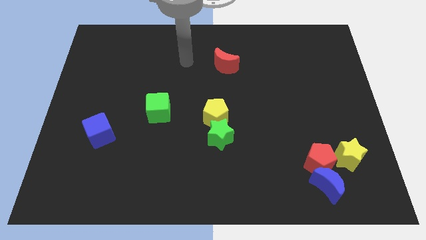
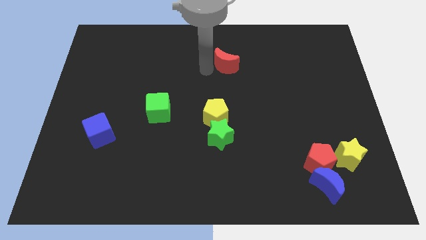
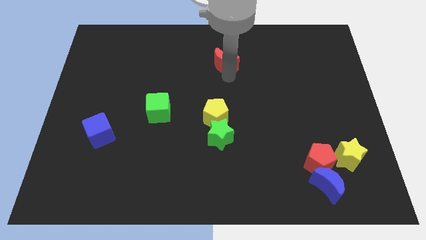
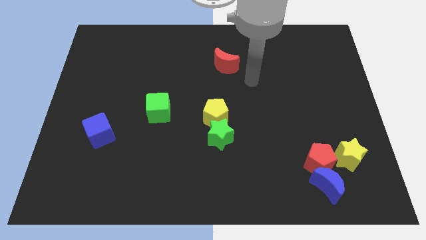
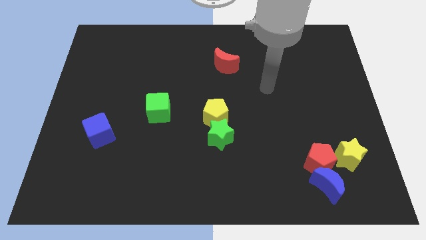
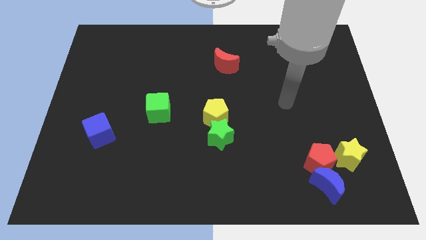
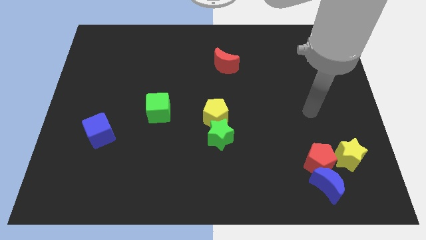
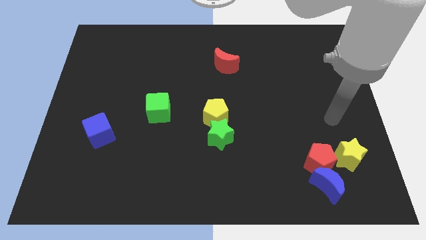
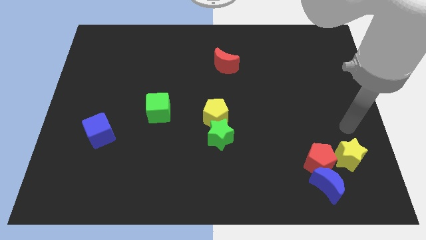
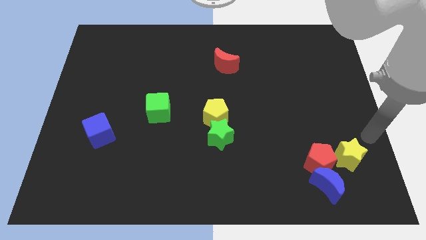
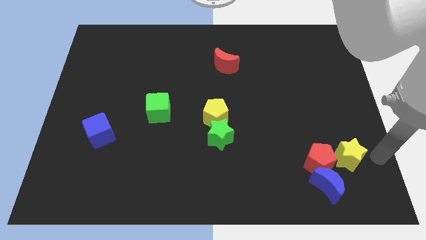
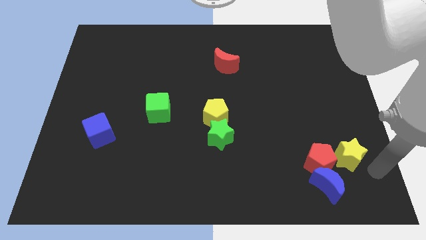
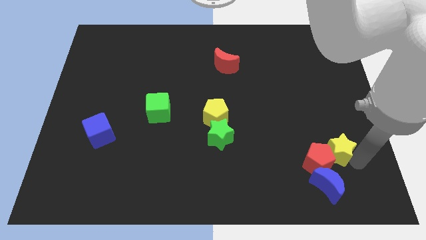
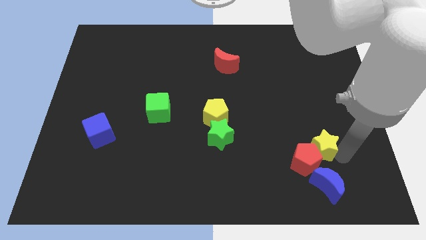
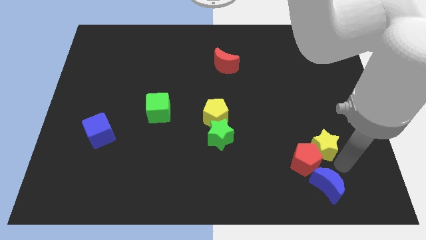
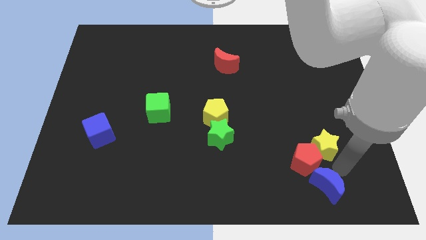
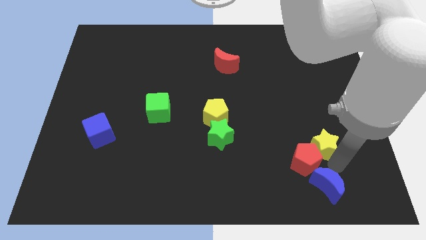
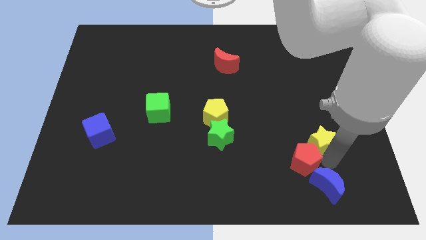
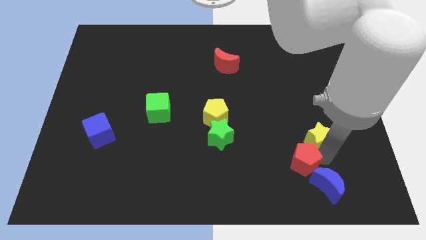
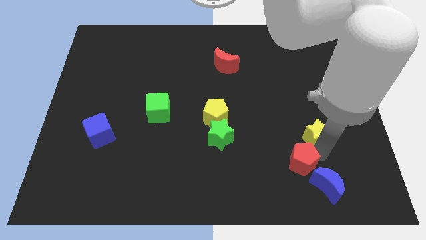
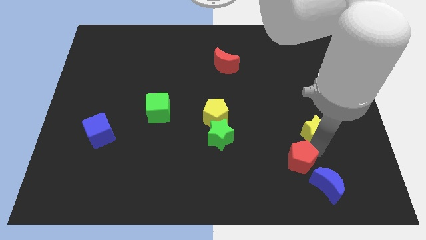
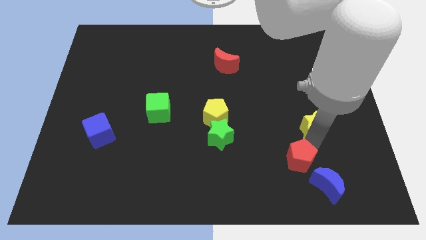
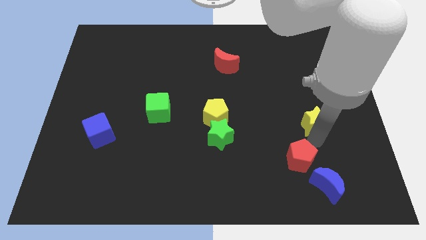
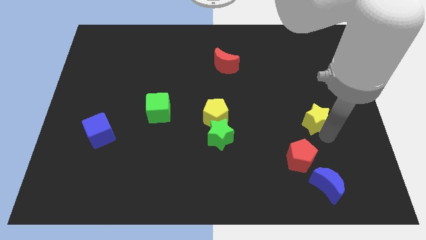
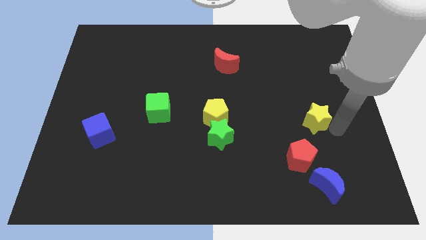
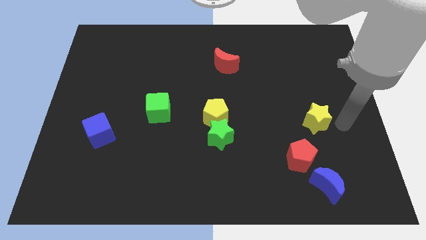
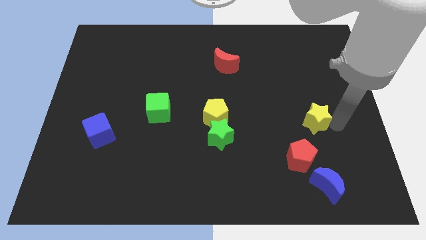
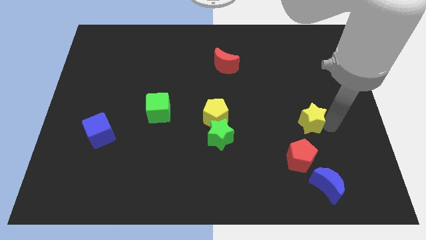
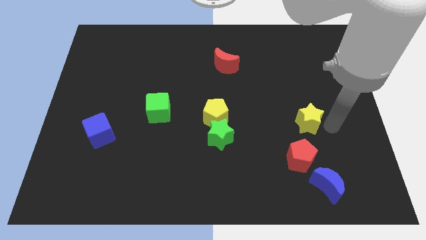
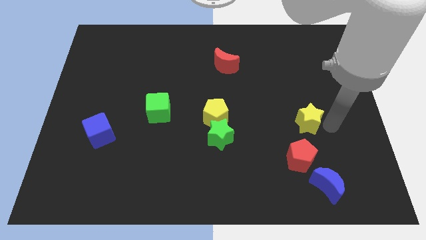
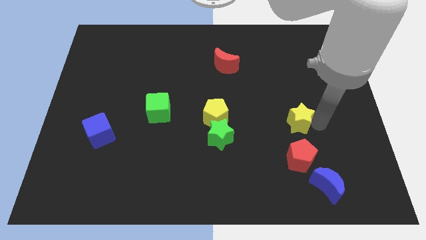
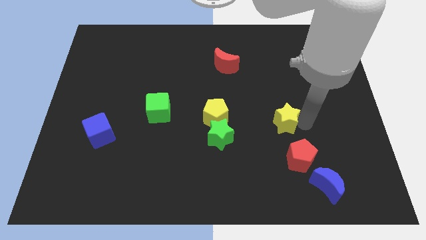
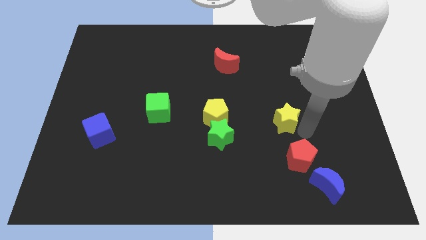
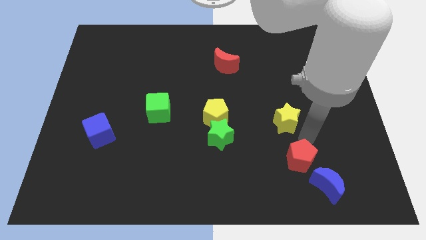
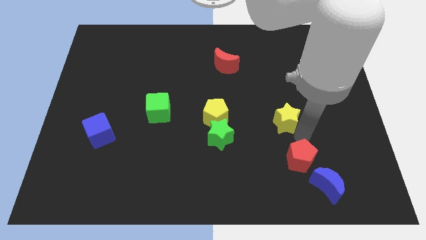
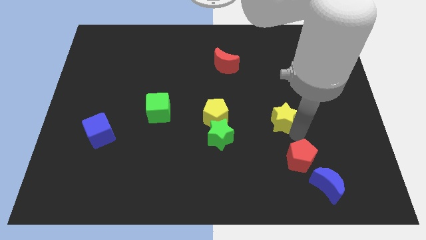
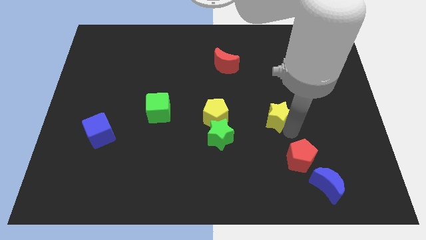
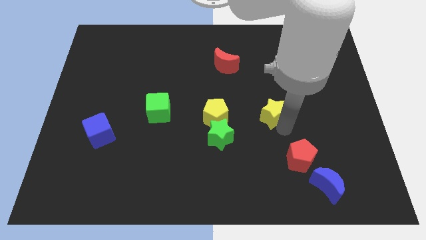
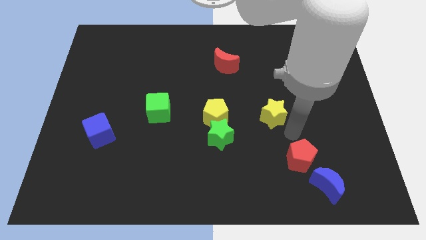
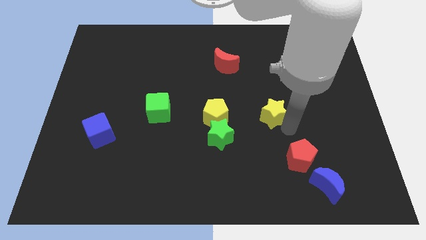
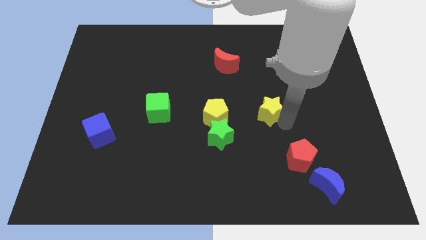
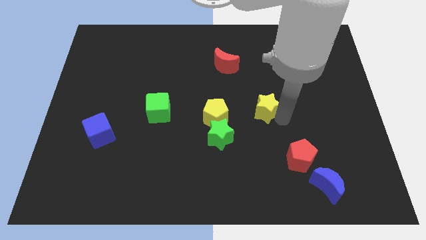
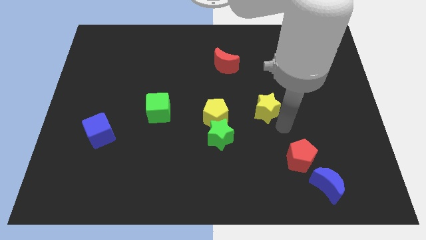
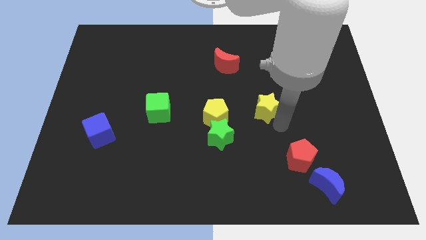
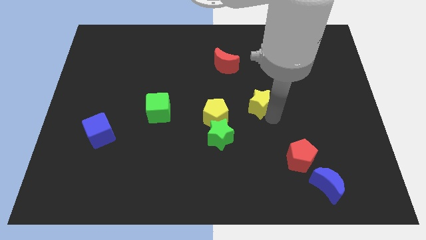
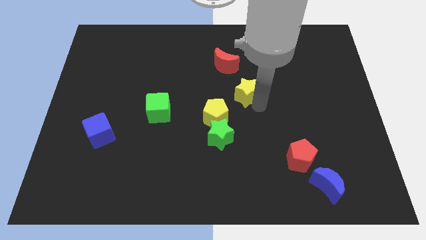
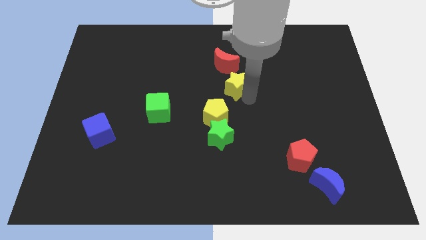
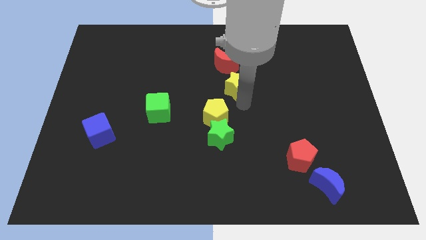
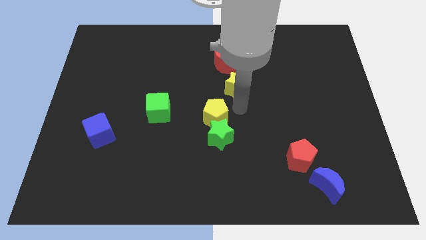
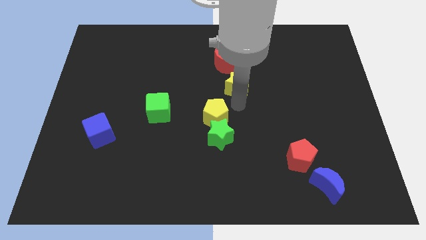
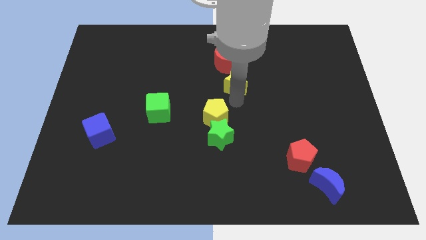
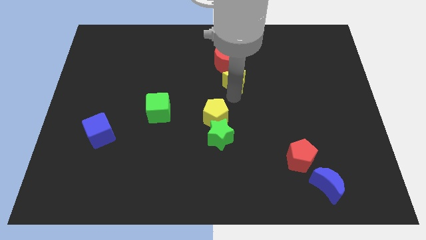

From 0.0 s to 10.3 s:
slide the yellow star close to the red moon

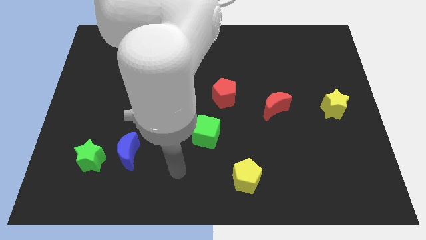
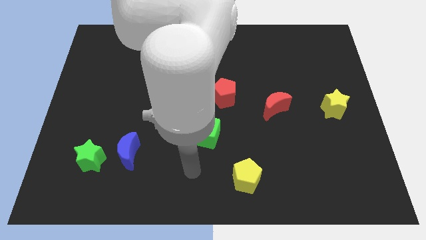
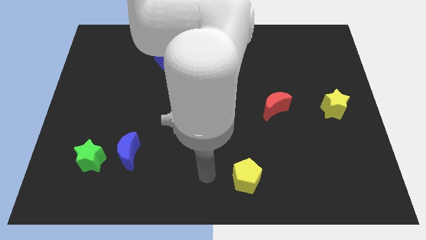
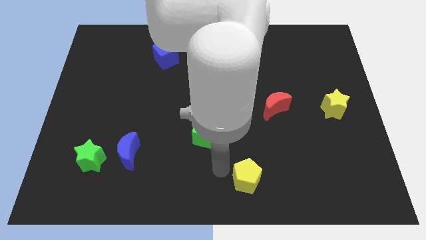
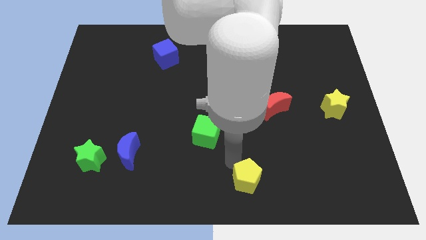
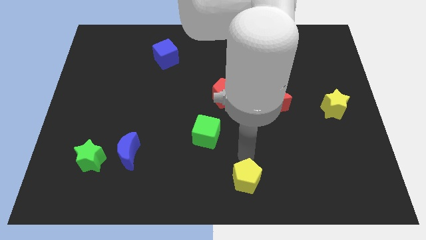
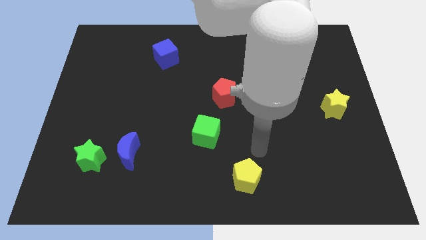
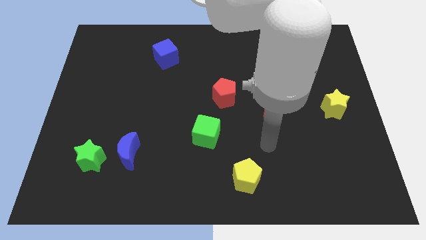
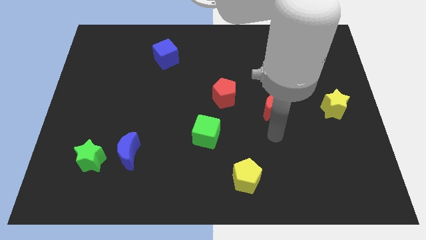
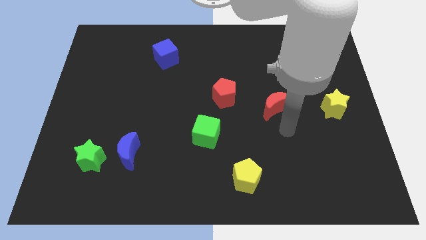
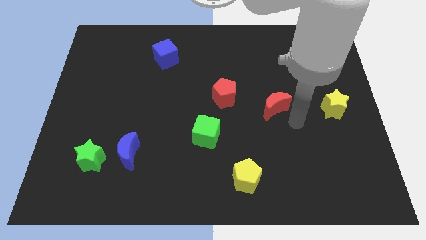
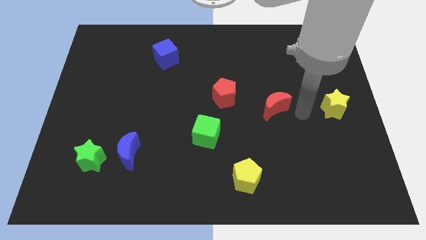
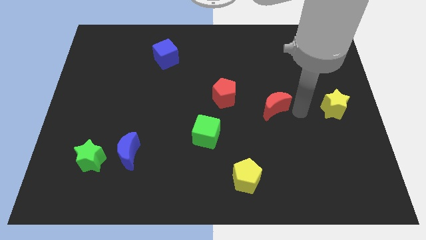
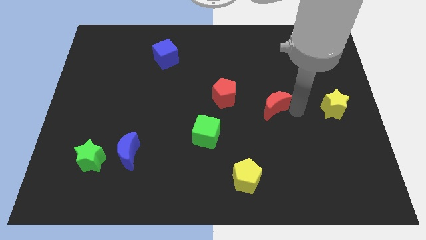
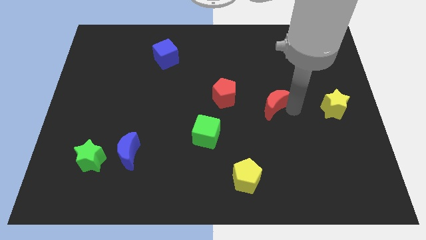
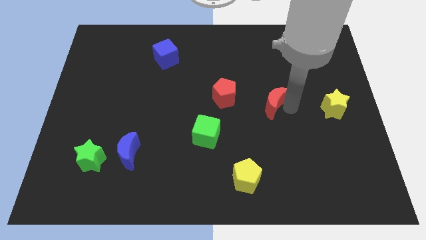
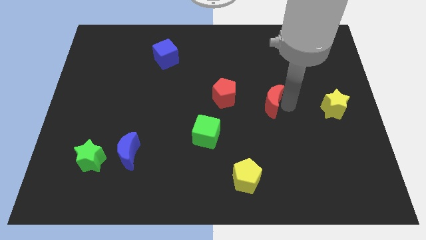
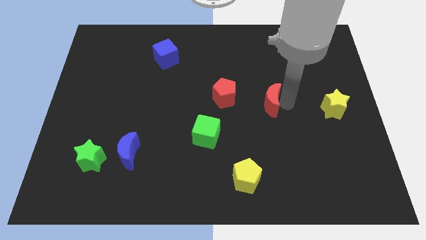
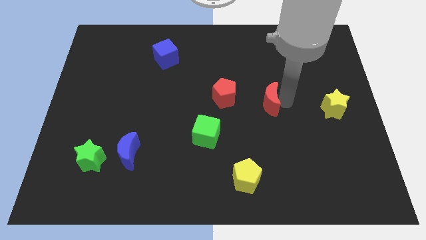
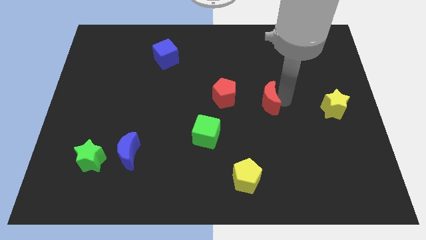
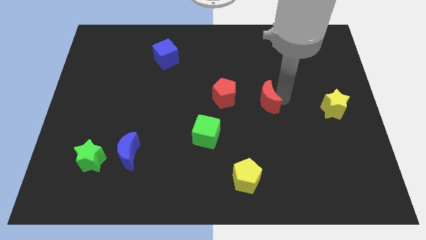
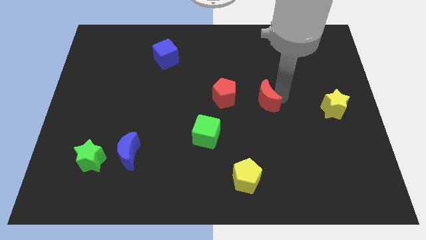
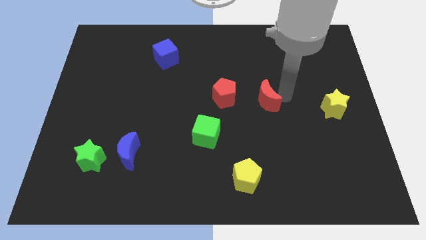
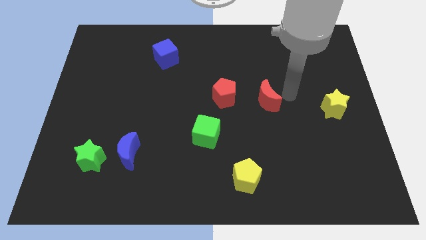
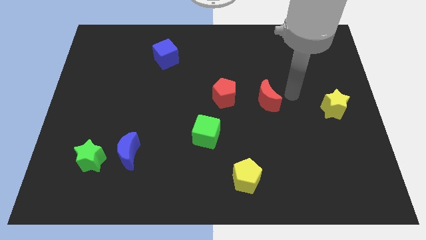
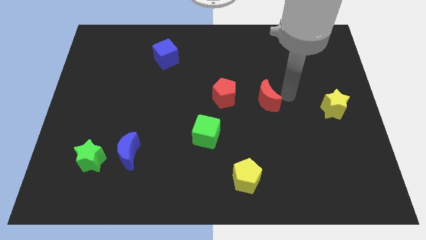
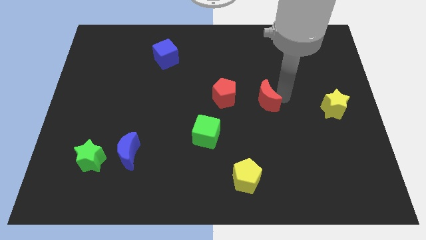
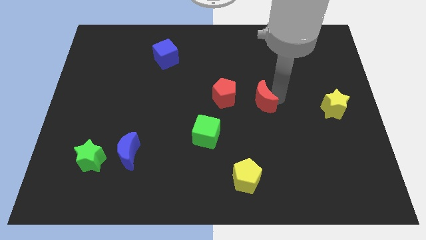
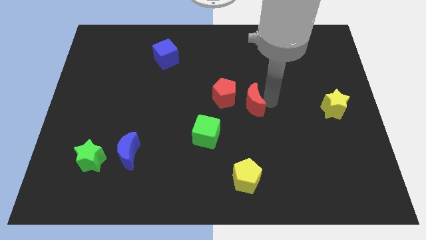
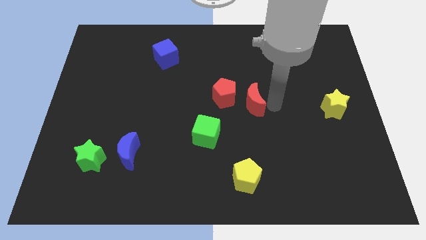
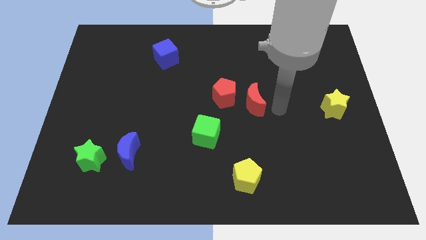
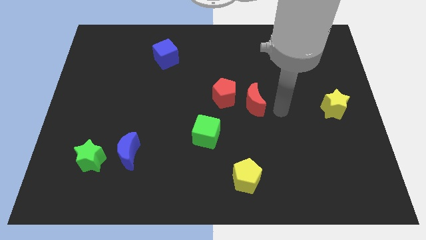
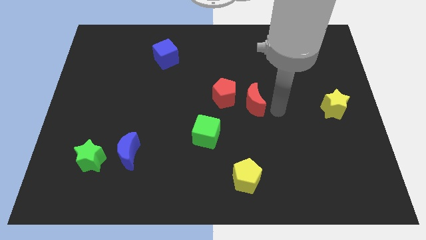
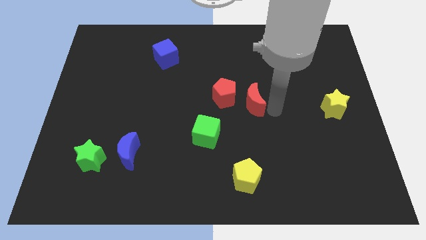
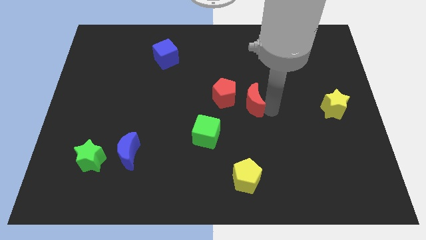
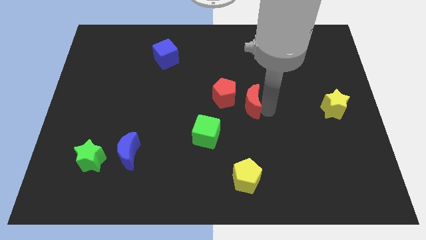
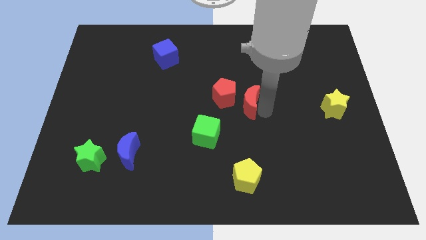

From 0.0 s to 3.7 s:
move the red moon next to the red pentagon
